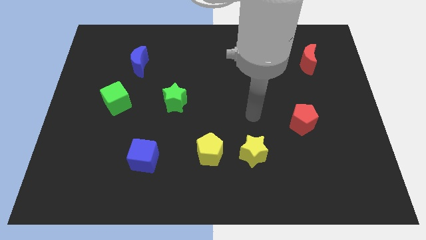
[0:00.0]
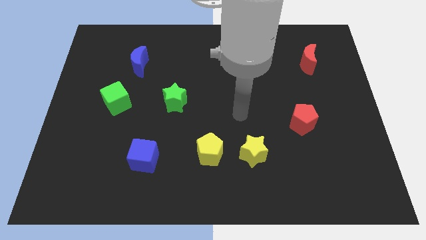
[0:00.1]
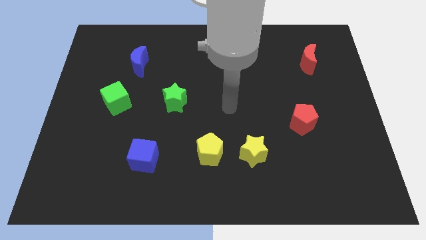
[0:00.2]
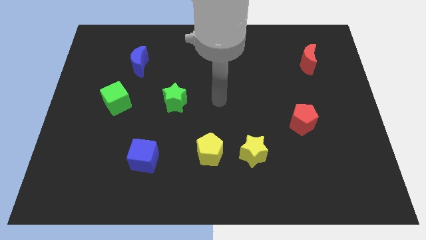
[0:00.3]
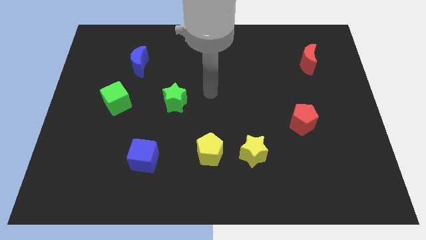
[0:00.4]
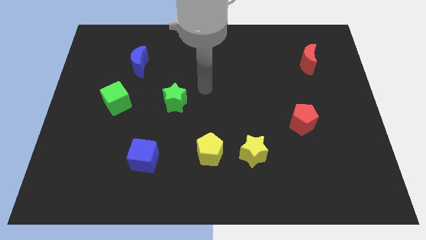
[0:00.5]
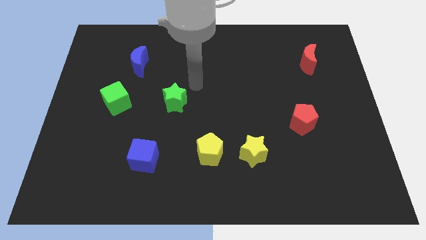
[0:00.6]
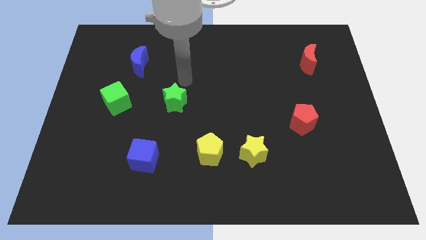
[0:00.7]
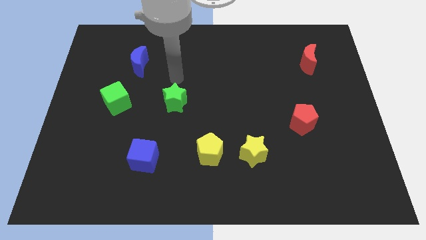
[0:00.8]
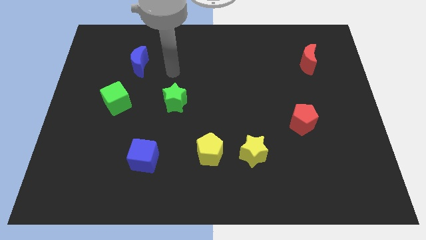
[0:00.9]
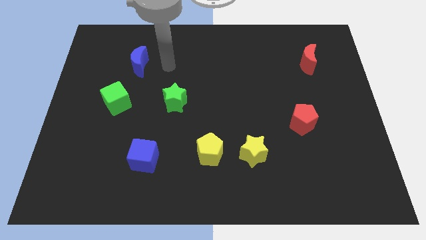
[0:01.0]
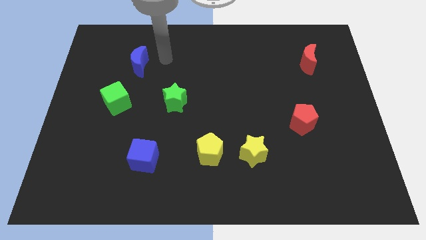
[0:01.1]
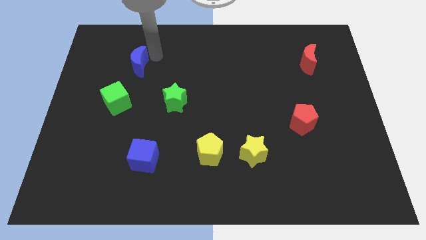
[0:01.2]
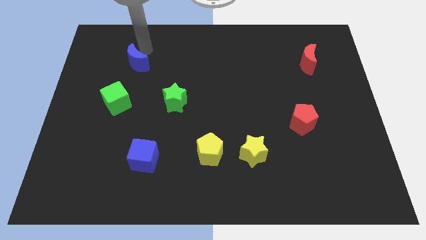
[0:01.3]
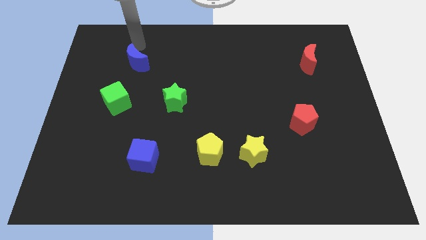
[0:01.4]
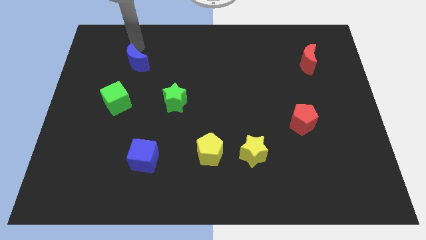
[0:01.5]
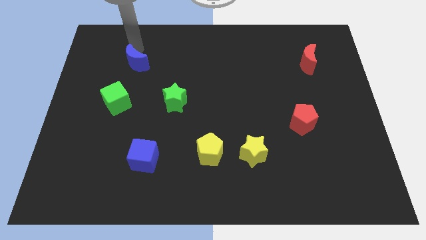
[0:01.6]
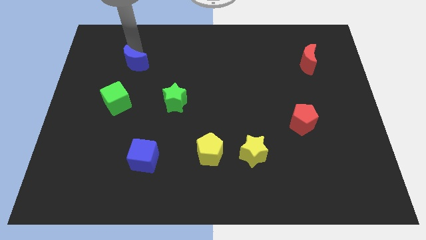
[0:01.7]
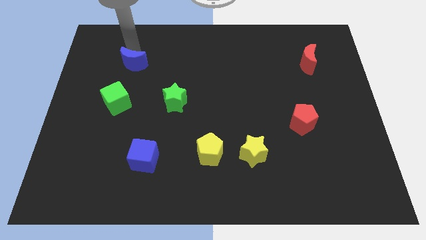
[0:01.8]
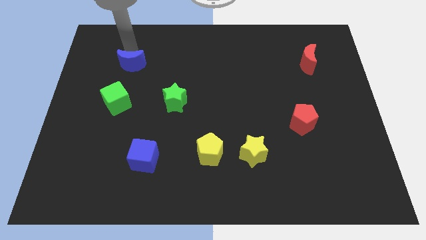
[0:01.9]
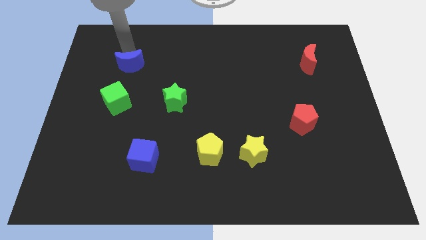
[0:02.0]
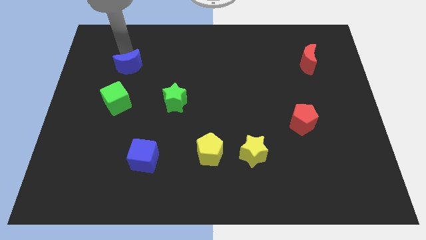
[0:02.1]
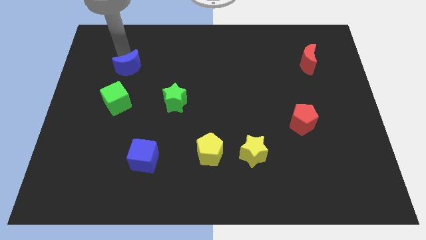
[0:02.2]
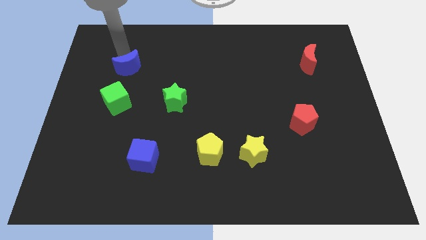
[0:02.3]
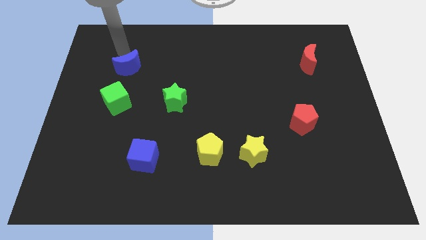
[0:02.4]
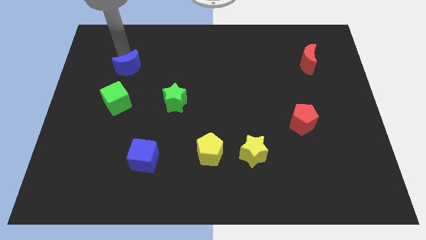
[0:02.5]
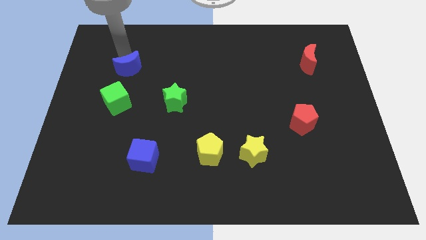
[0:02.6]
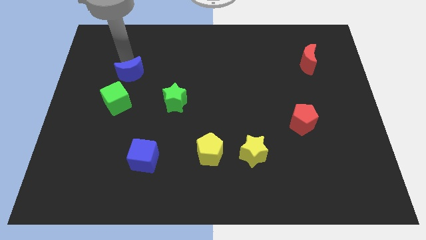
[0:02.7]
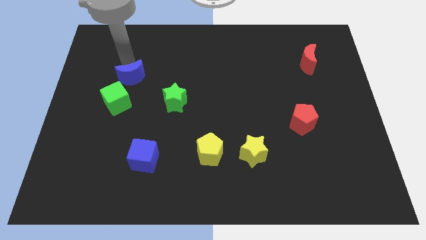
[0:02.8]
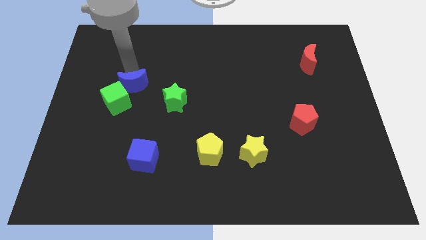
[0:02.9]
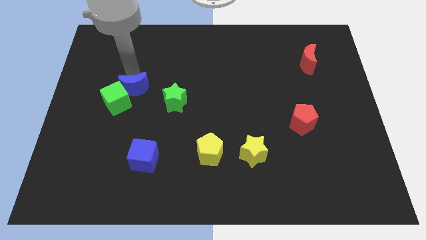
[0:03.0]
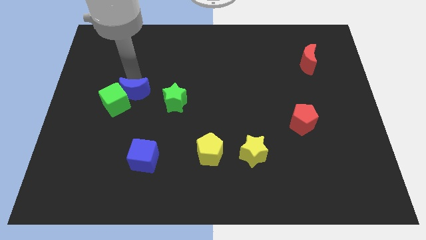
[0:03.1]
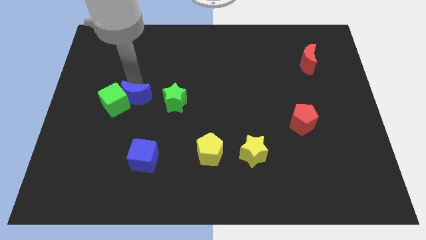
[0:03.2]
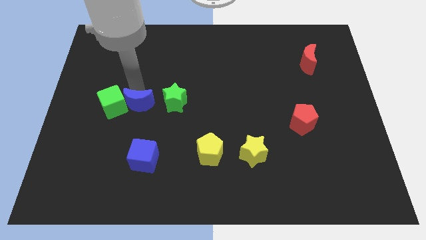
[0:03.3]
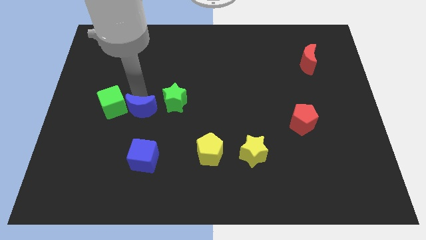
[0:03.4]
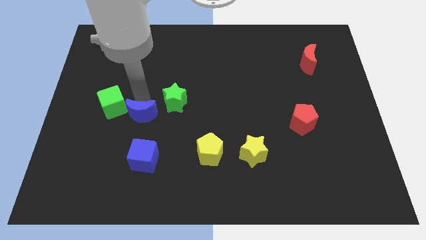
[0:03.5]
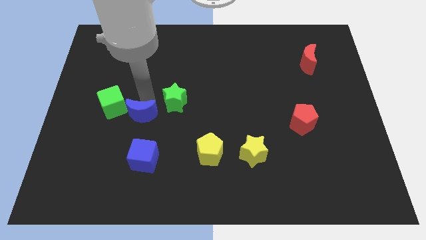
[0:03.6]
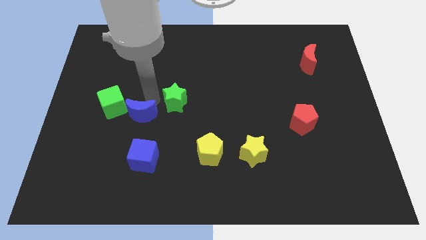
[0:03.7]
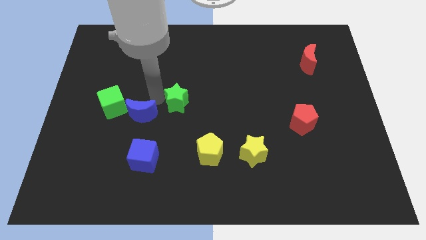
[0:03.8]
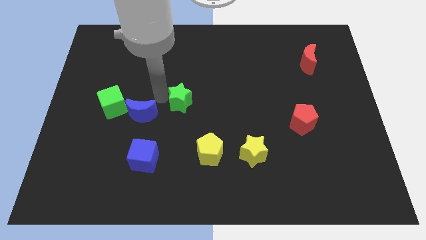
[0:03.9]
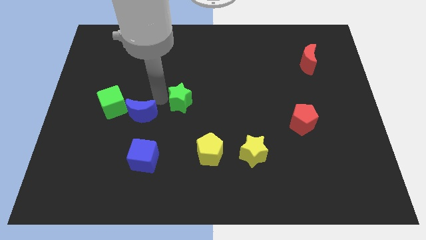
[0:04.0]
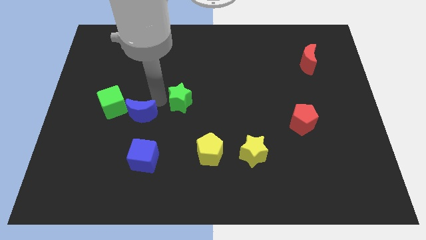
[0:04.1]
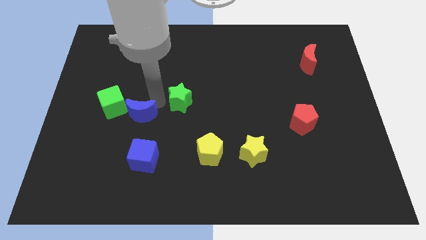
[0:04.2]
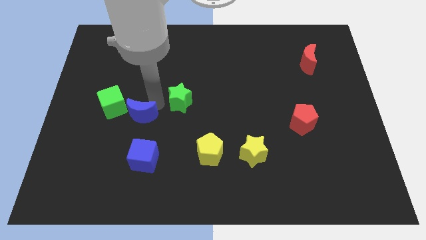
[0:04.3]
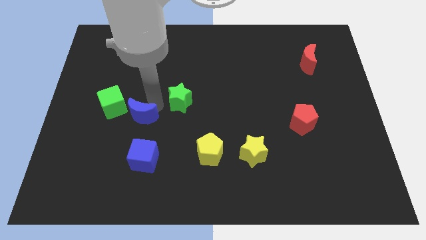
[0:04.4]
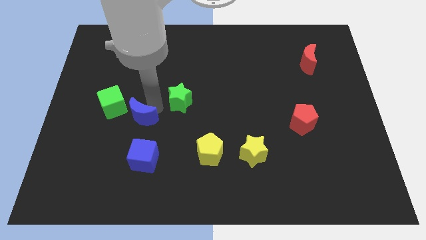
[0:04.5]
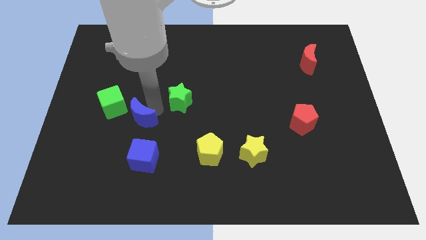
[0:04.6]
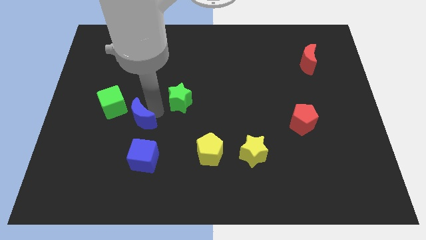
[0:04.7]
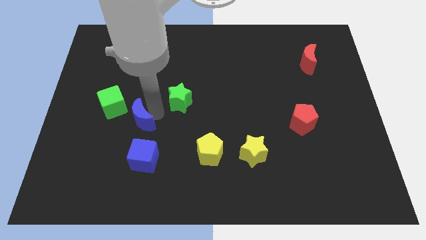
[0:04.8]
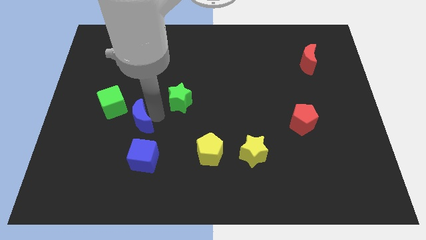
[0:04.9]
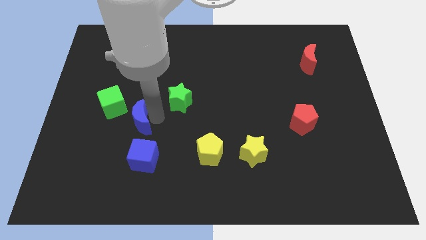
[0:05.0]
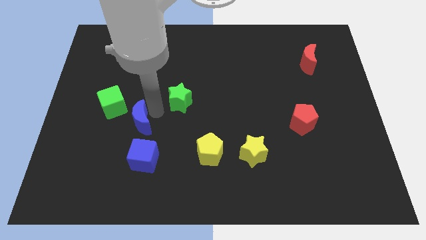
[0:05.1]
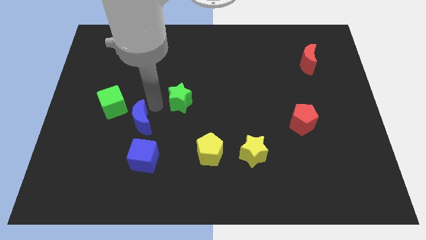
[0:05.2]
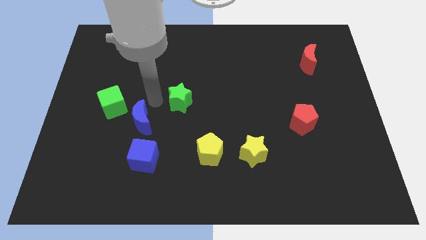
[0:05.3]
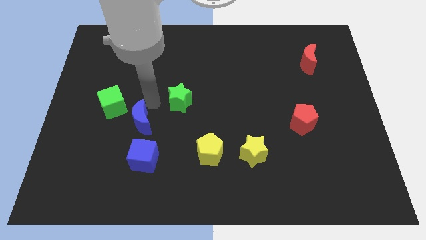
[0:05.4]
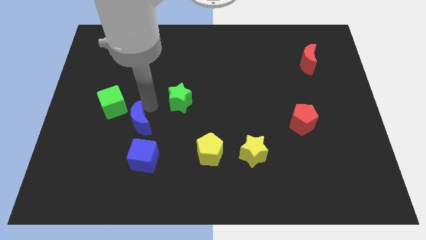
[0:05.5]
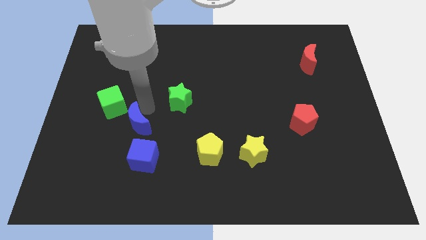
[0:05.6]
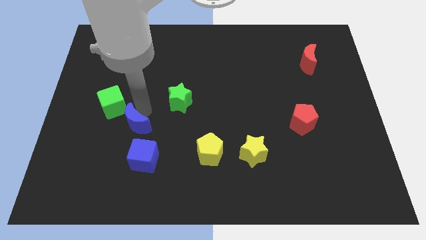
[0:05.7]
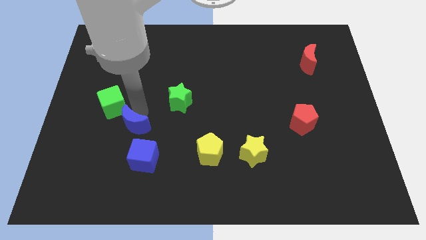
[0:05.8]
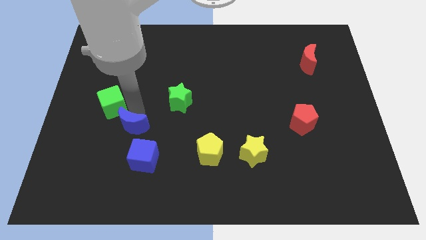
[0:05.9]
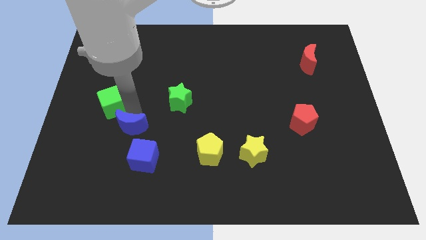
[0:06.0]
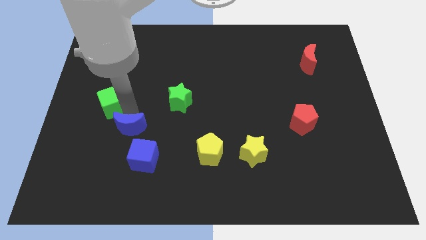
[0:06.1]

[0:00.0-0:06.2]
slide the blue moon down

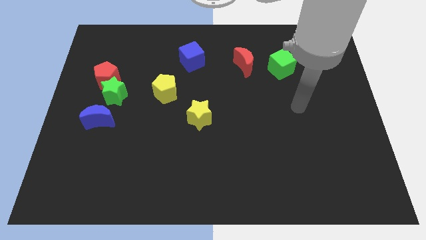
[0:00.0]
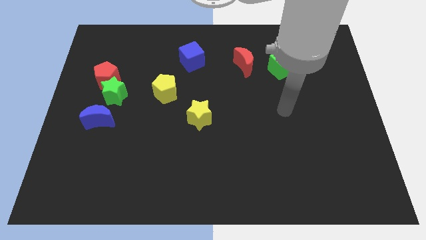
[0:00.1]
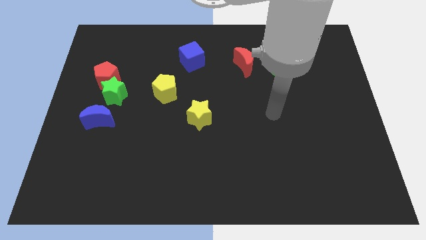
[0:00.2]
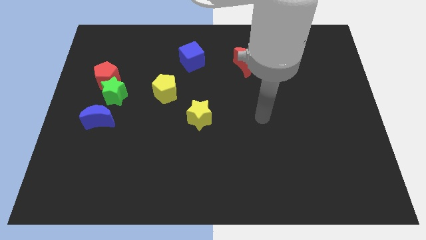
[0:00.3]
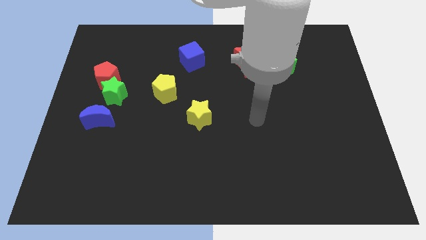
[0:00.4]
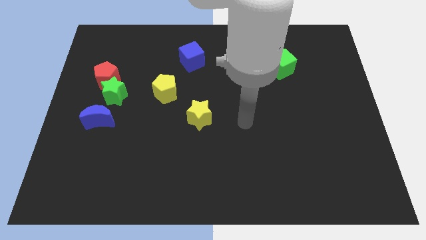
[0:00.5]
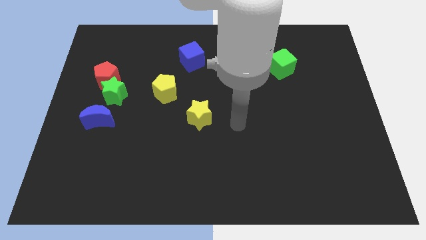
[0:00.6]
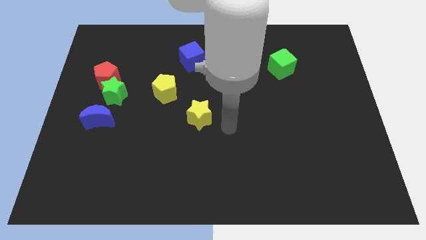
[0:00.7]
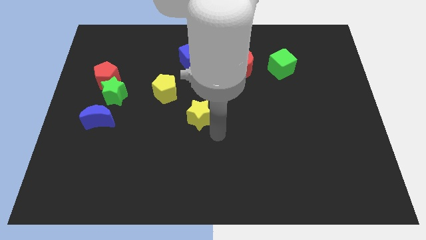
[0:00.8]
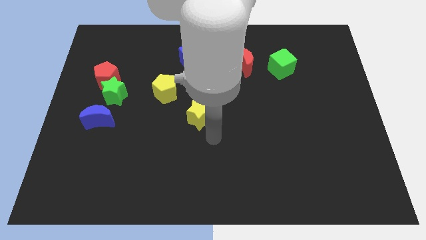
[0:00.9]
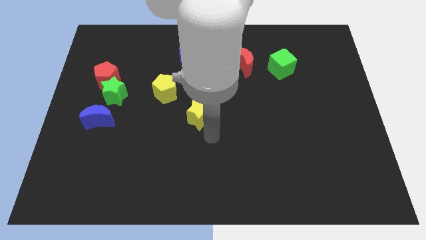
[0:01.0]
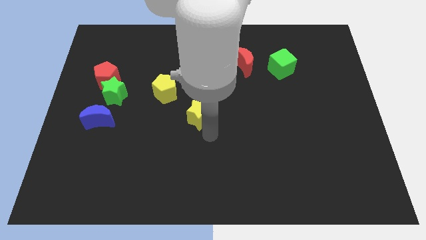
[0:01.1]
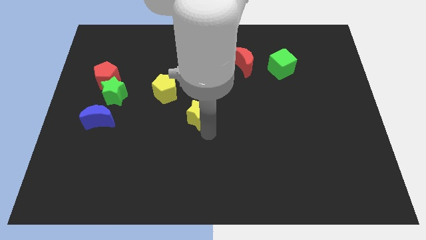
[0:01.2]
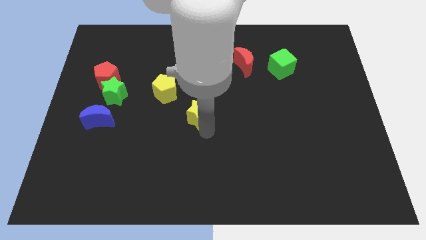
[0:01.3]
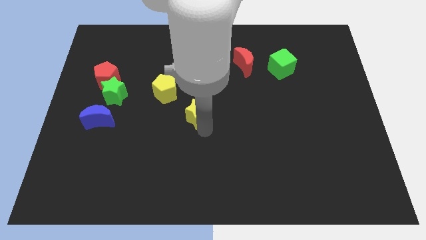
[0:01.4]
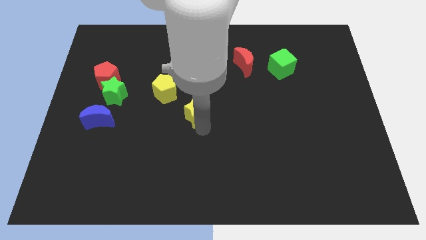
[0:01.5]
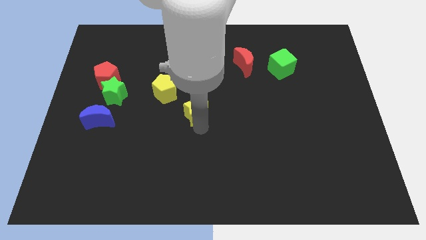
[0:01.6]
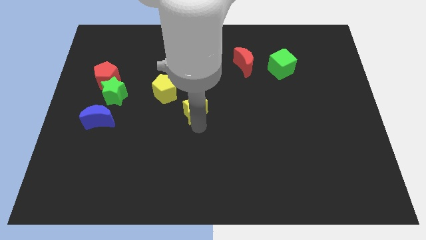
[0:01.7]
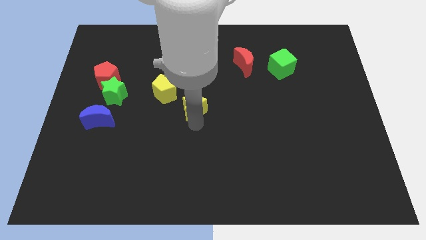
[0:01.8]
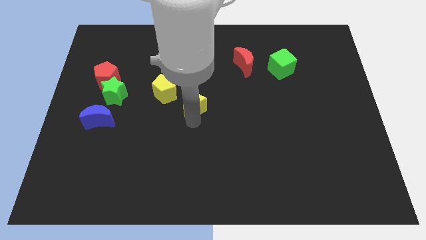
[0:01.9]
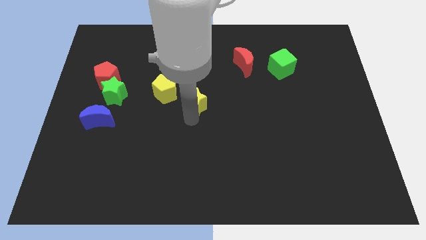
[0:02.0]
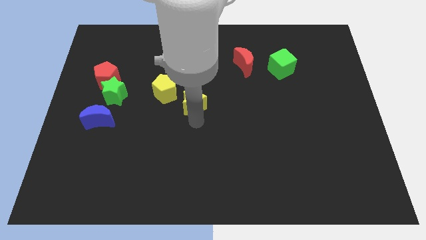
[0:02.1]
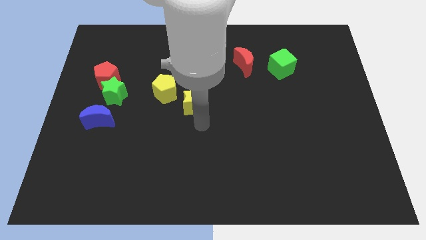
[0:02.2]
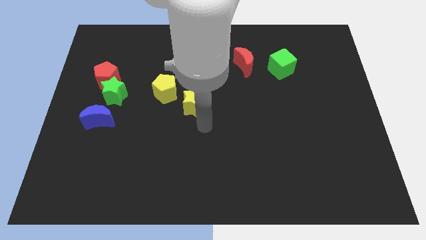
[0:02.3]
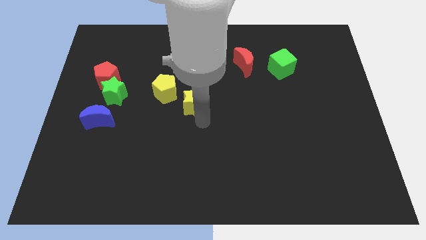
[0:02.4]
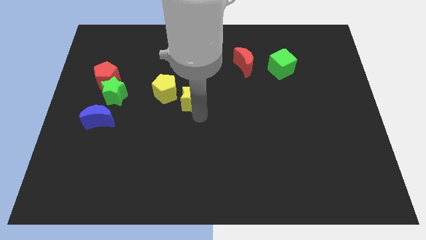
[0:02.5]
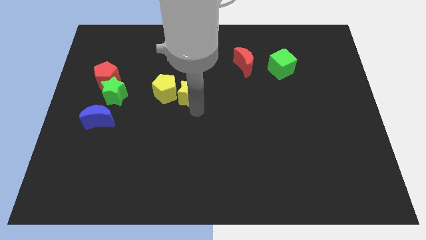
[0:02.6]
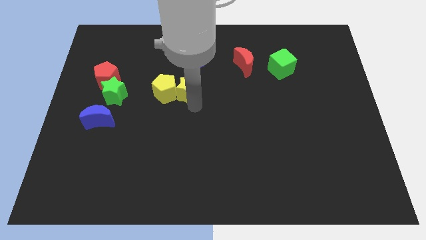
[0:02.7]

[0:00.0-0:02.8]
push the yellow star somewhat up and to the left
